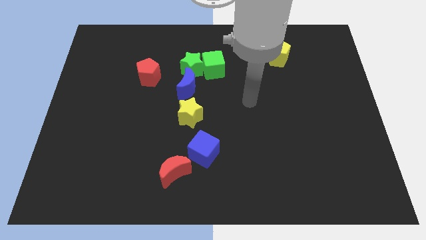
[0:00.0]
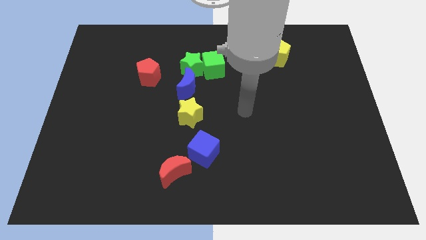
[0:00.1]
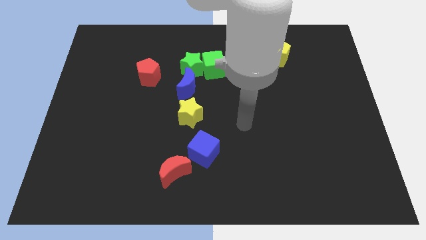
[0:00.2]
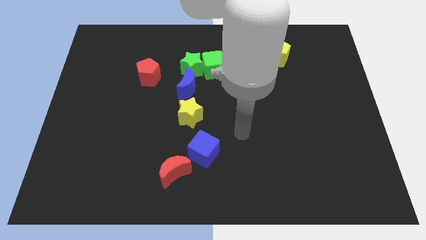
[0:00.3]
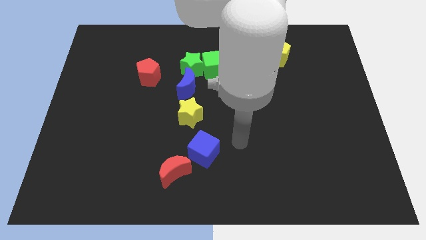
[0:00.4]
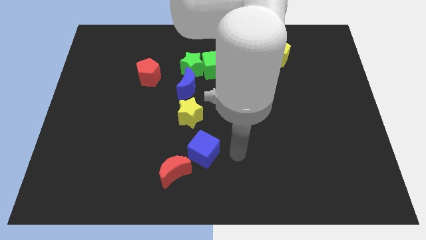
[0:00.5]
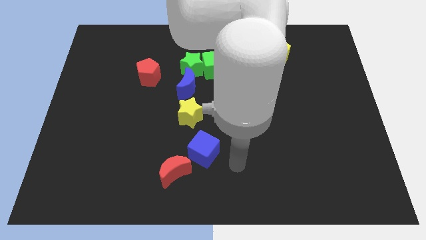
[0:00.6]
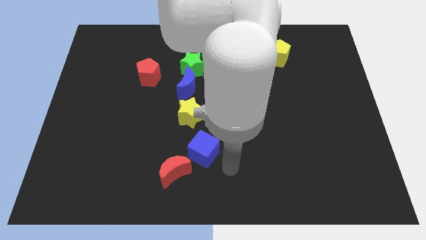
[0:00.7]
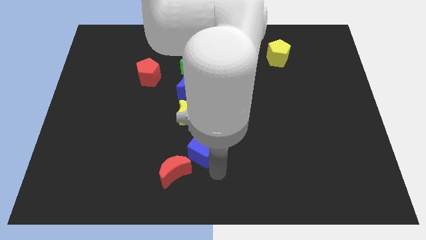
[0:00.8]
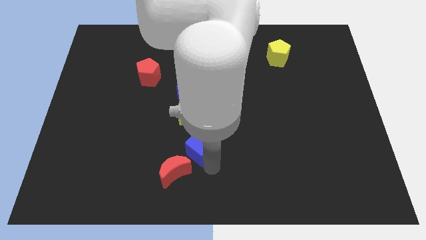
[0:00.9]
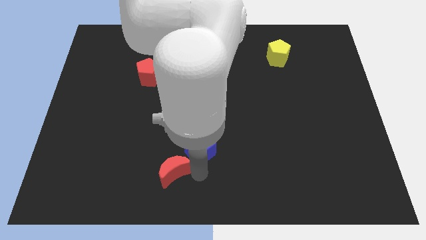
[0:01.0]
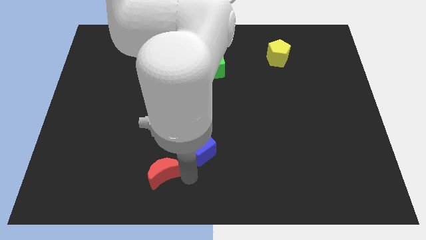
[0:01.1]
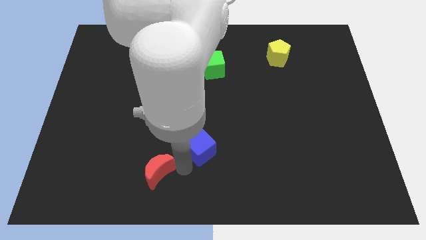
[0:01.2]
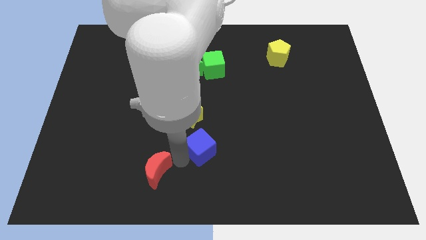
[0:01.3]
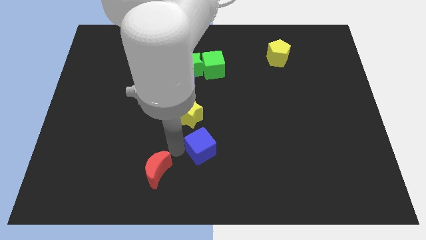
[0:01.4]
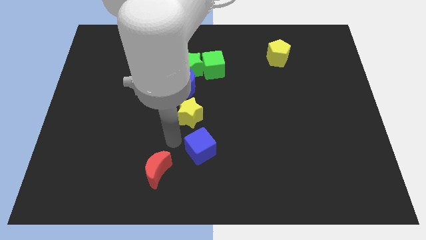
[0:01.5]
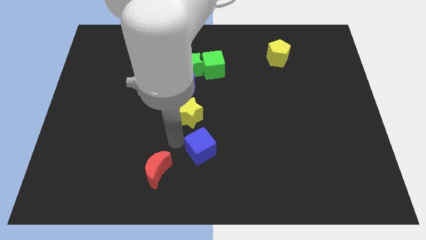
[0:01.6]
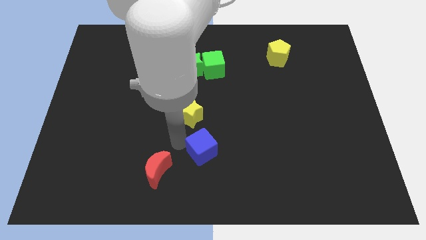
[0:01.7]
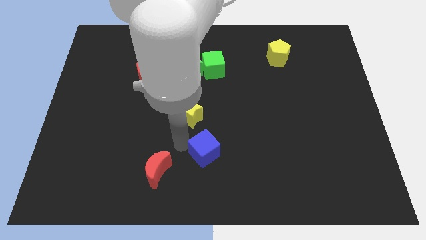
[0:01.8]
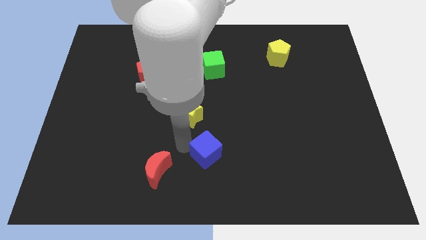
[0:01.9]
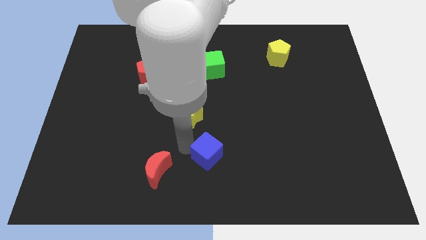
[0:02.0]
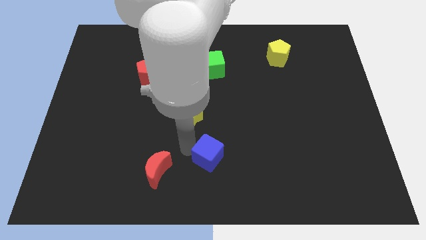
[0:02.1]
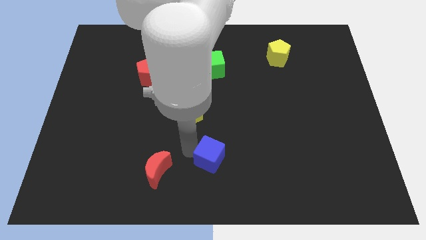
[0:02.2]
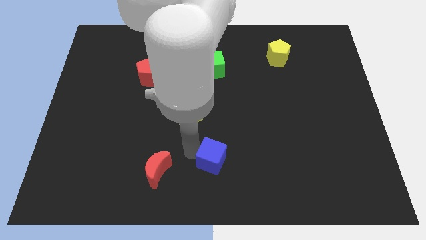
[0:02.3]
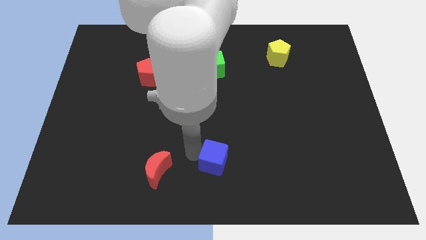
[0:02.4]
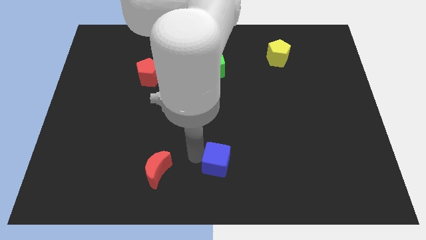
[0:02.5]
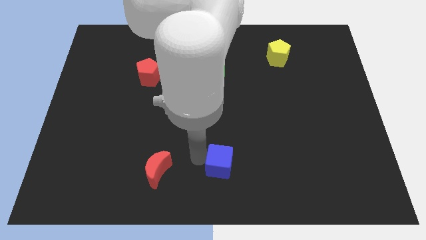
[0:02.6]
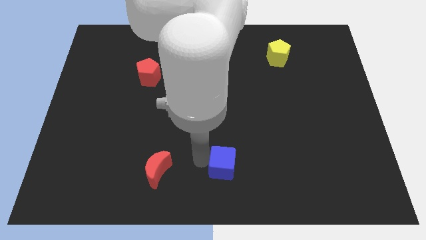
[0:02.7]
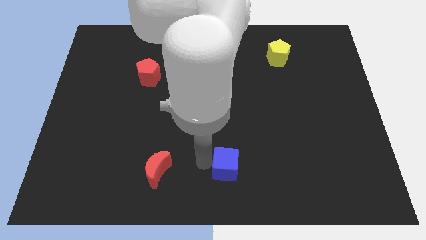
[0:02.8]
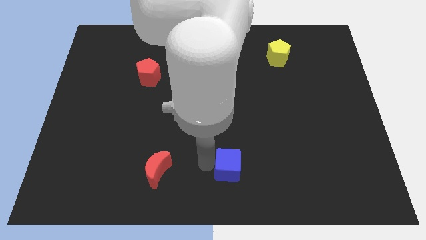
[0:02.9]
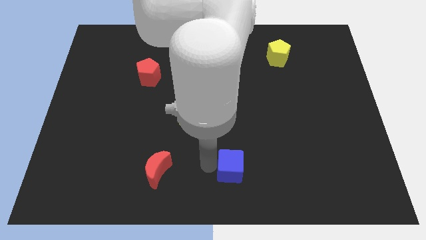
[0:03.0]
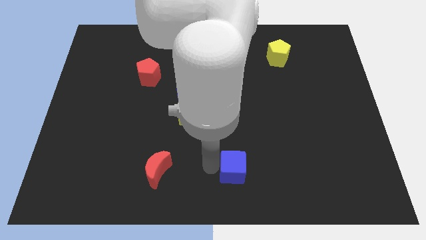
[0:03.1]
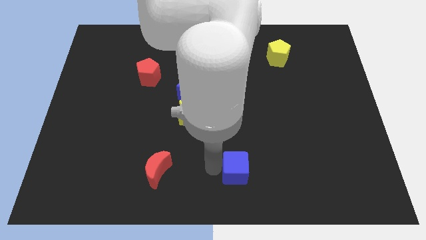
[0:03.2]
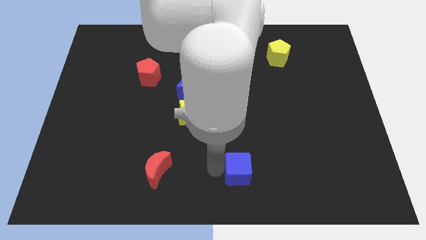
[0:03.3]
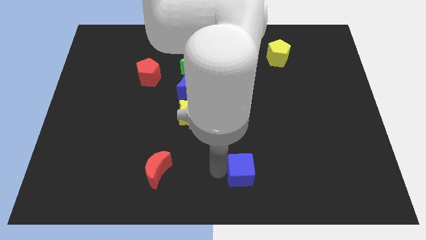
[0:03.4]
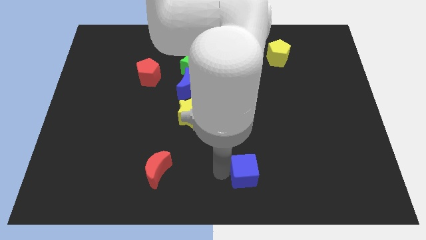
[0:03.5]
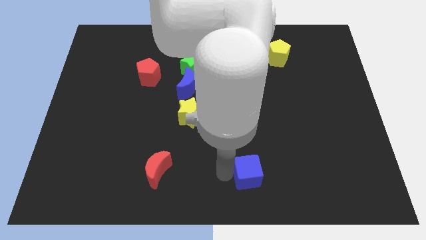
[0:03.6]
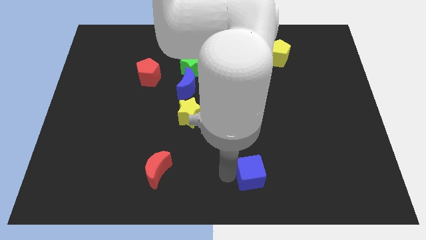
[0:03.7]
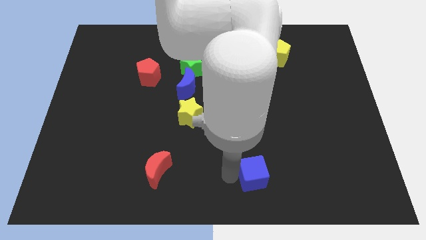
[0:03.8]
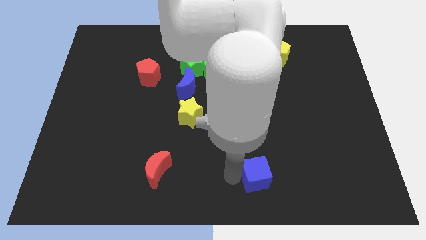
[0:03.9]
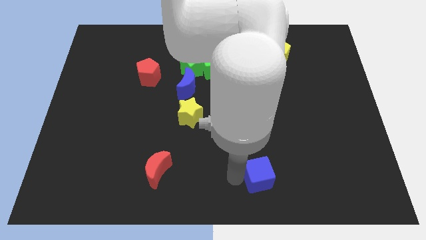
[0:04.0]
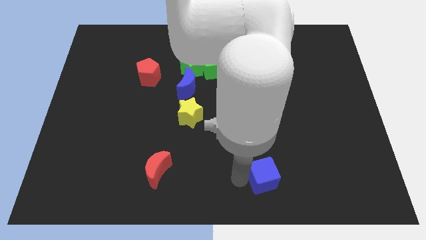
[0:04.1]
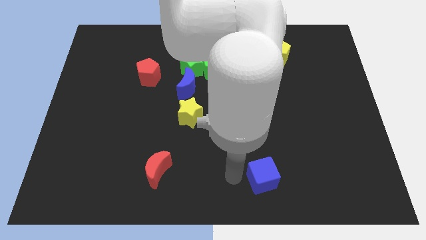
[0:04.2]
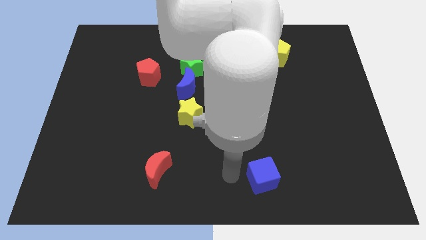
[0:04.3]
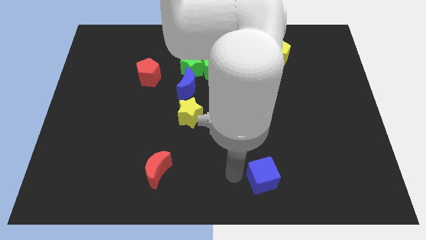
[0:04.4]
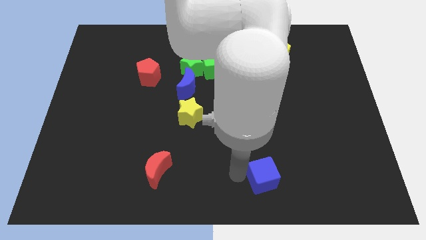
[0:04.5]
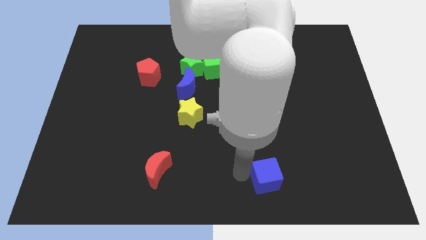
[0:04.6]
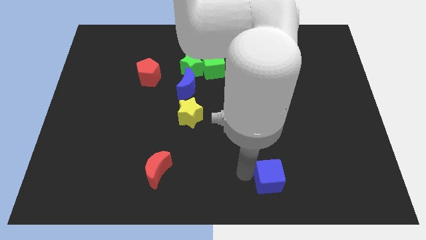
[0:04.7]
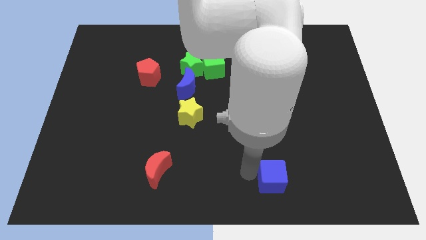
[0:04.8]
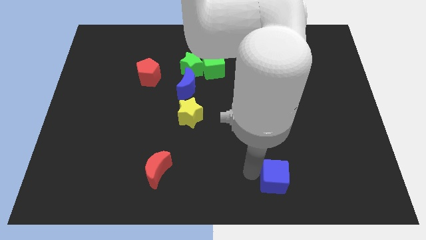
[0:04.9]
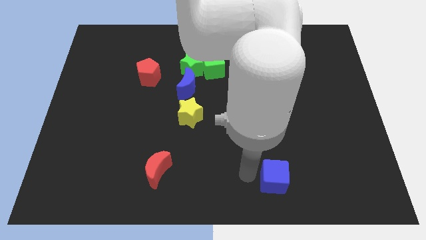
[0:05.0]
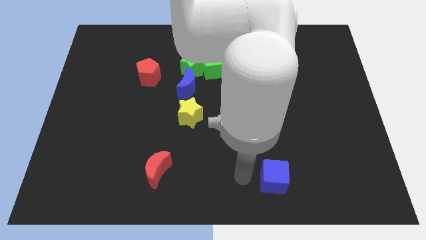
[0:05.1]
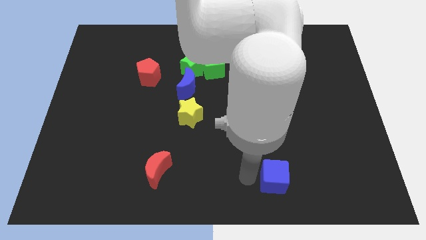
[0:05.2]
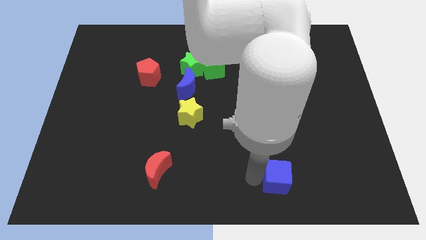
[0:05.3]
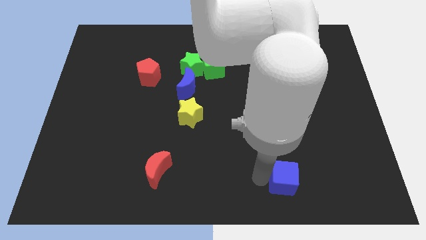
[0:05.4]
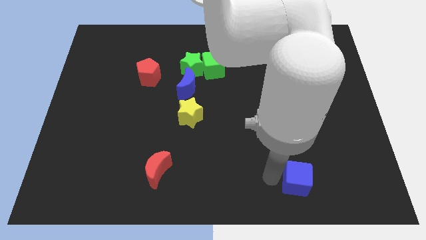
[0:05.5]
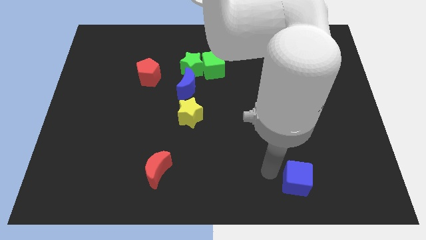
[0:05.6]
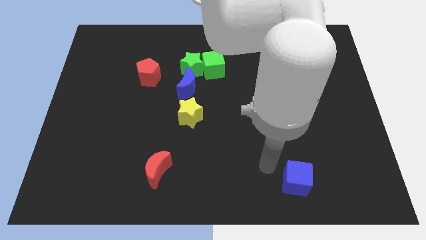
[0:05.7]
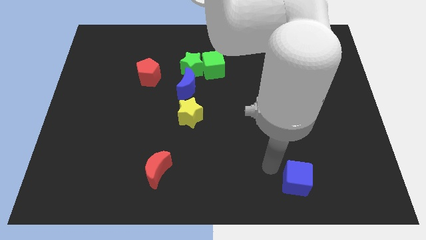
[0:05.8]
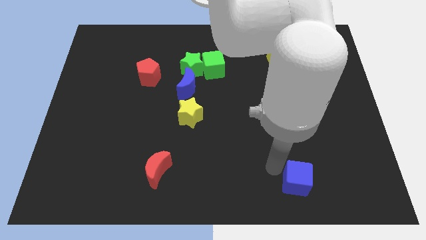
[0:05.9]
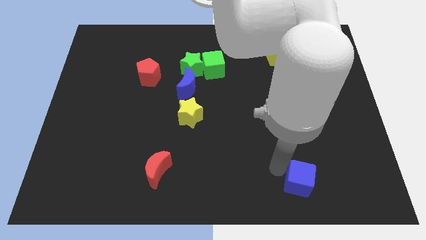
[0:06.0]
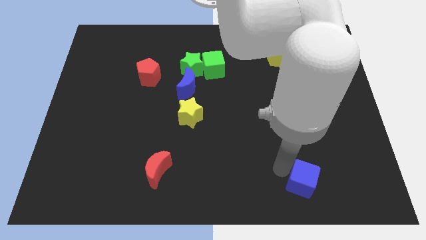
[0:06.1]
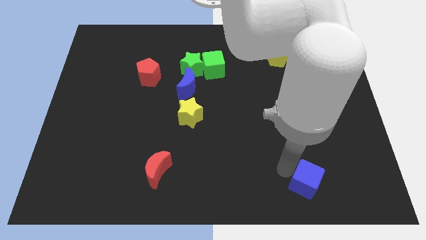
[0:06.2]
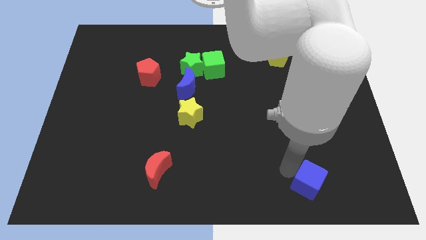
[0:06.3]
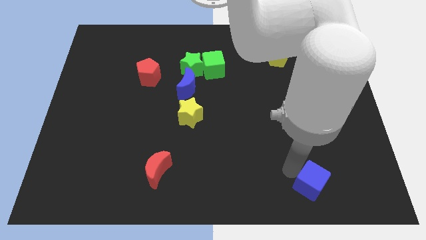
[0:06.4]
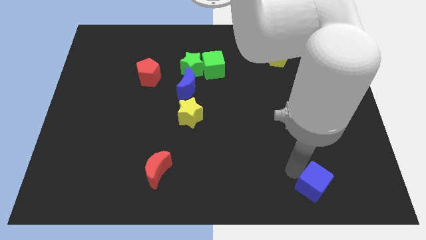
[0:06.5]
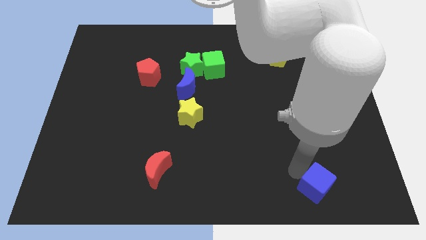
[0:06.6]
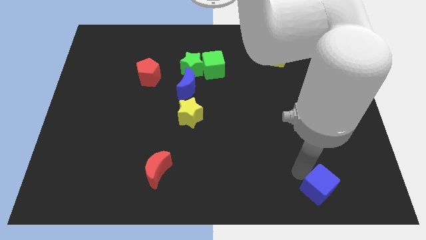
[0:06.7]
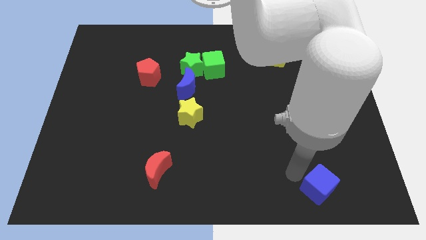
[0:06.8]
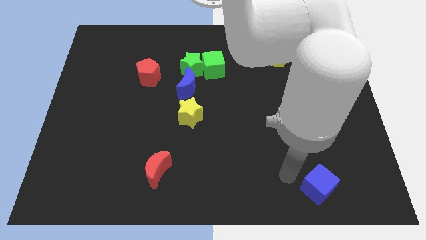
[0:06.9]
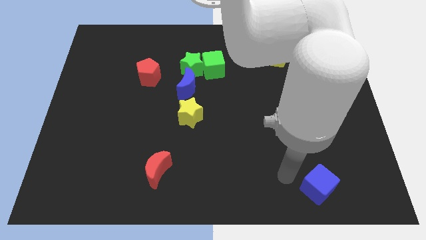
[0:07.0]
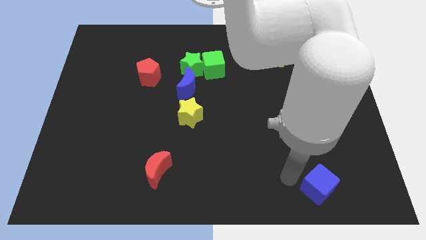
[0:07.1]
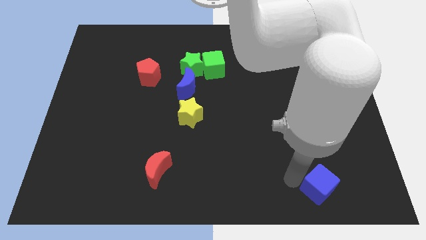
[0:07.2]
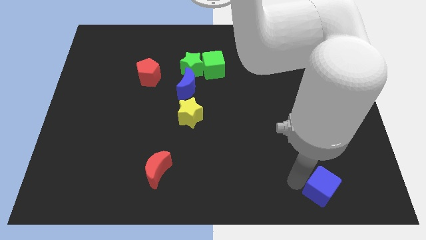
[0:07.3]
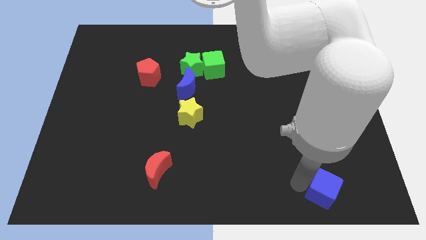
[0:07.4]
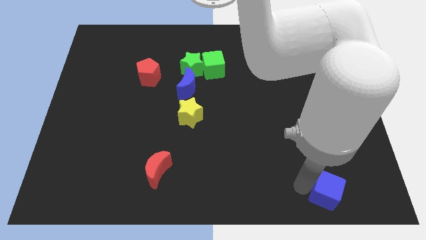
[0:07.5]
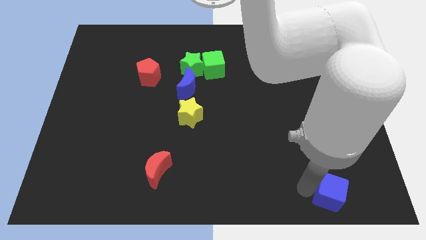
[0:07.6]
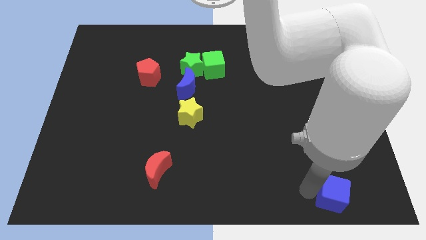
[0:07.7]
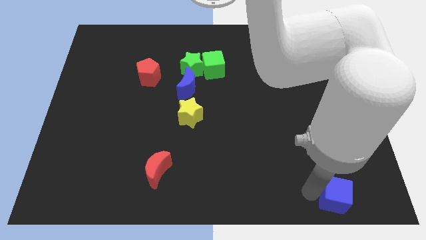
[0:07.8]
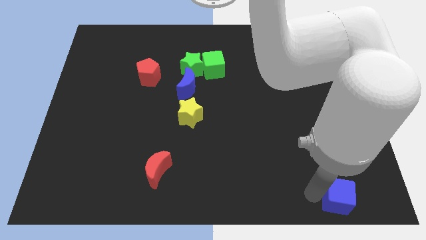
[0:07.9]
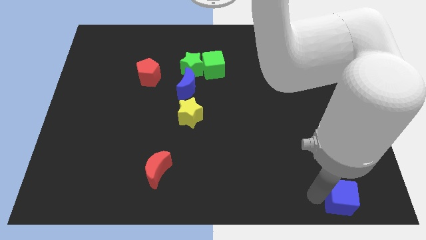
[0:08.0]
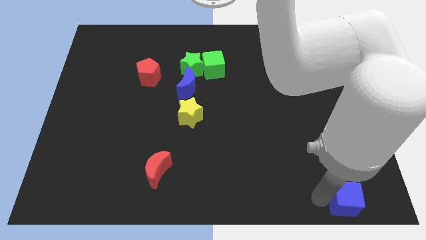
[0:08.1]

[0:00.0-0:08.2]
move the blue cube to the lower right corner
